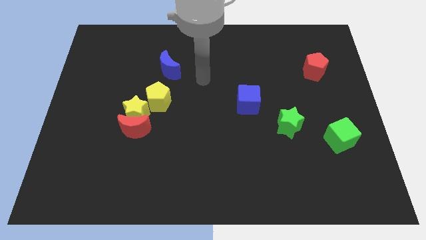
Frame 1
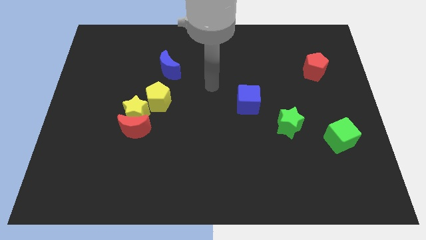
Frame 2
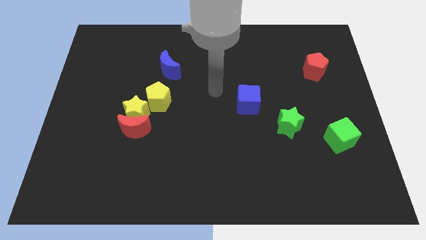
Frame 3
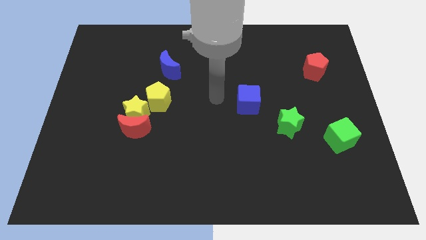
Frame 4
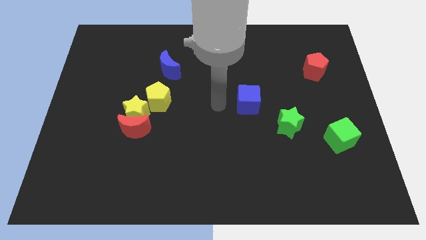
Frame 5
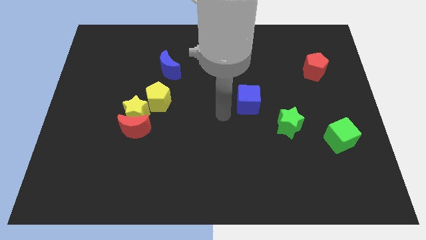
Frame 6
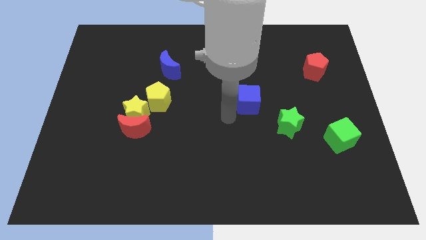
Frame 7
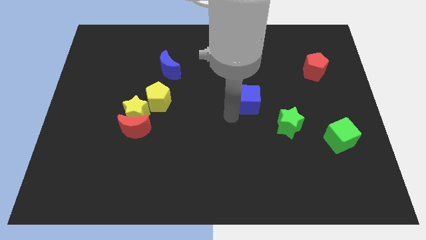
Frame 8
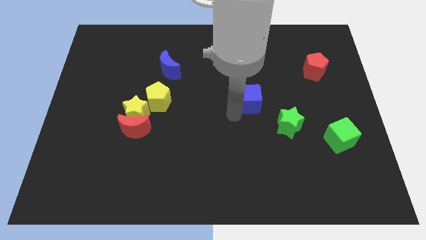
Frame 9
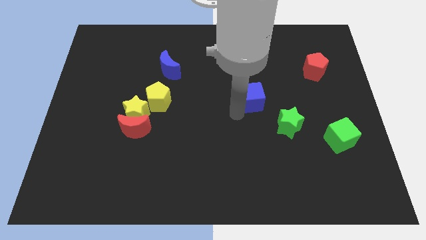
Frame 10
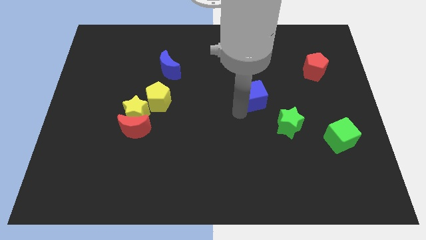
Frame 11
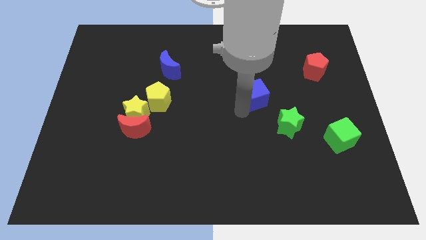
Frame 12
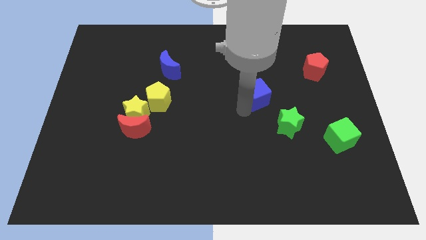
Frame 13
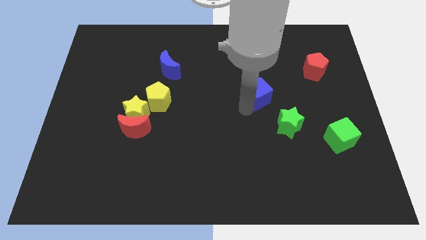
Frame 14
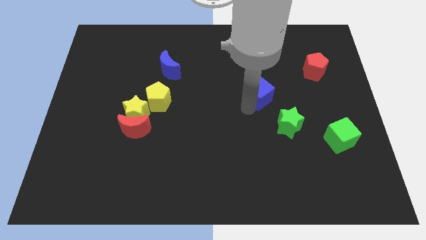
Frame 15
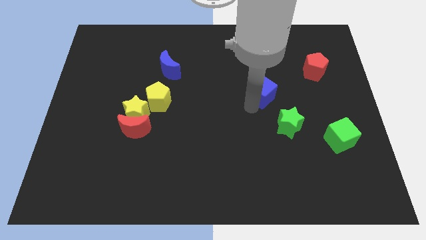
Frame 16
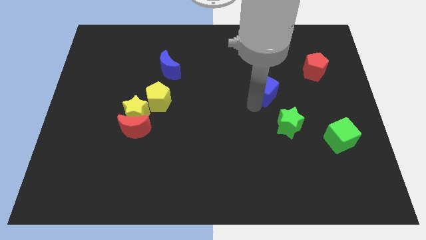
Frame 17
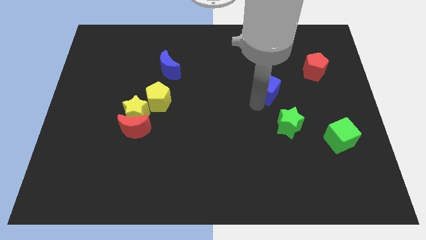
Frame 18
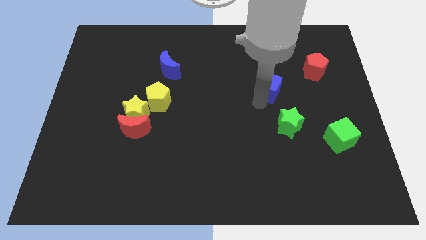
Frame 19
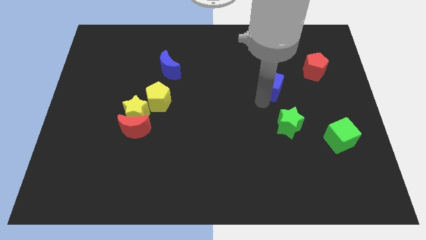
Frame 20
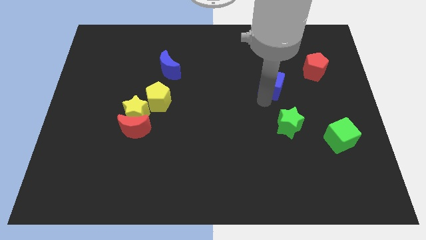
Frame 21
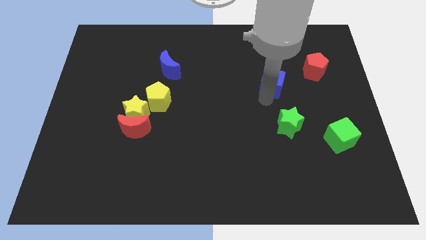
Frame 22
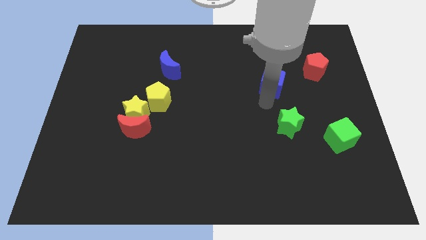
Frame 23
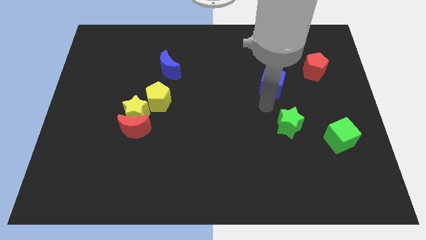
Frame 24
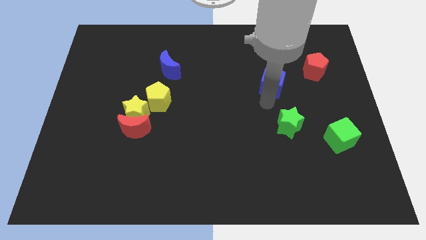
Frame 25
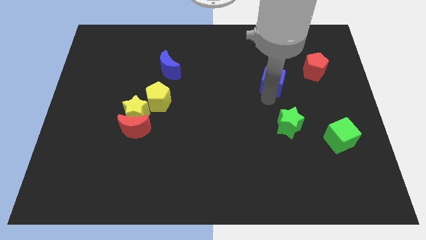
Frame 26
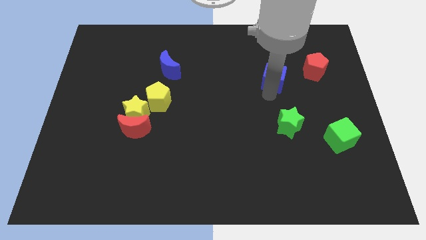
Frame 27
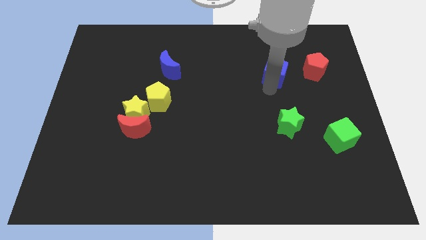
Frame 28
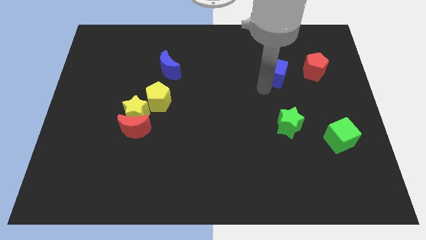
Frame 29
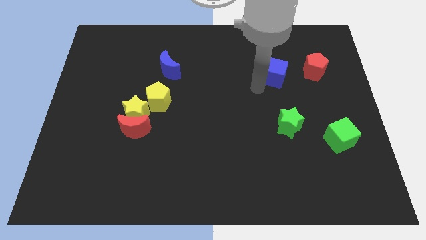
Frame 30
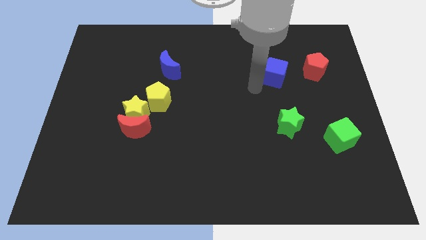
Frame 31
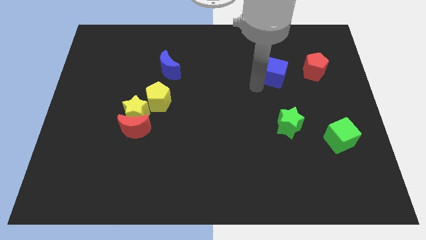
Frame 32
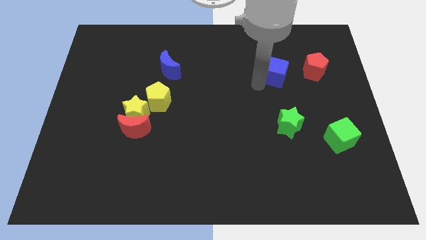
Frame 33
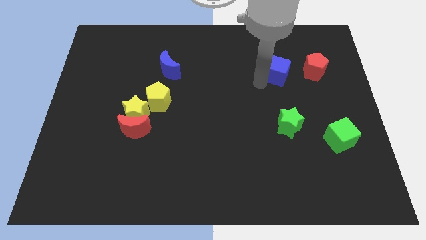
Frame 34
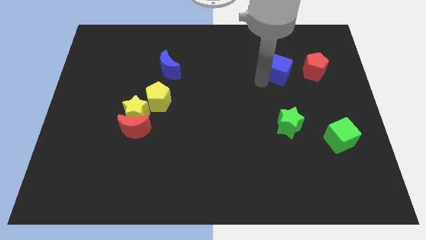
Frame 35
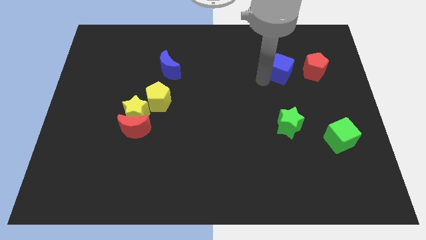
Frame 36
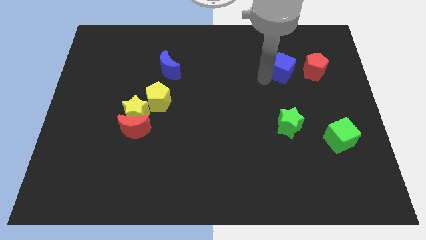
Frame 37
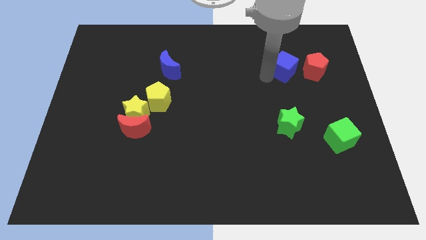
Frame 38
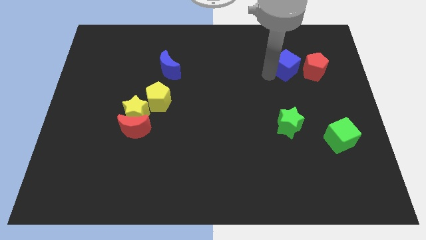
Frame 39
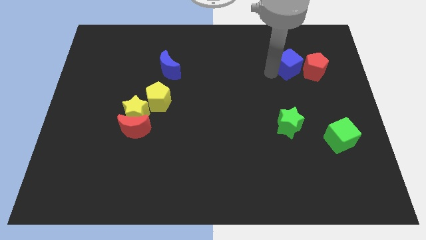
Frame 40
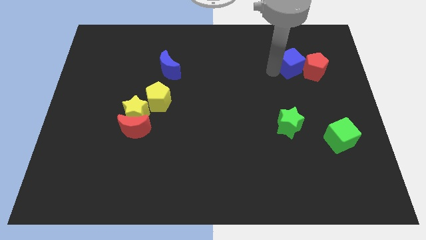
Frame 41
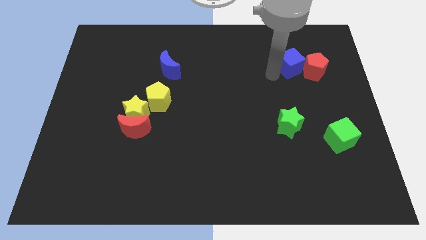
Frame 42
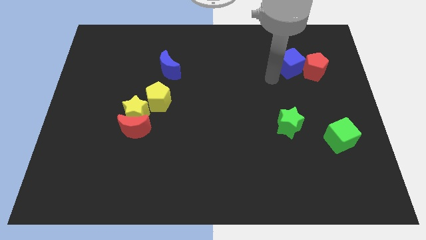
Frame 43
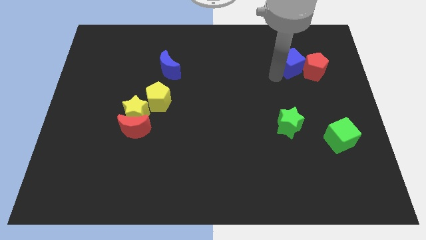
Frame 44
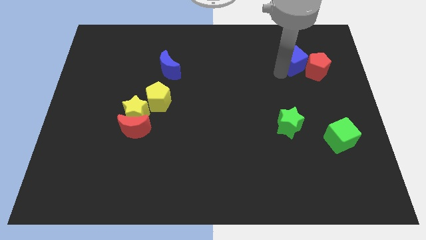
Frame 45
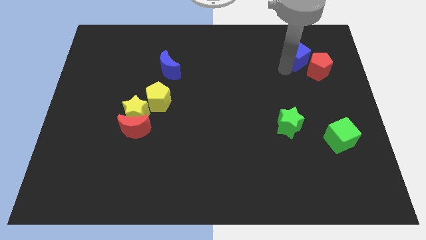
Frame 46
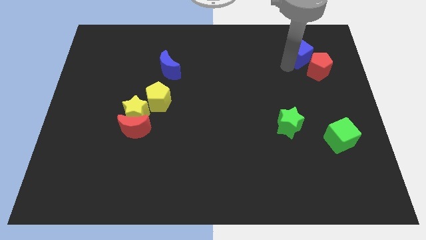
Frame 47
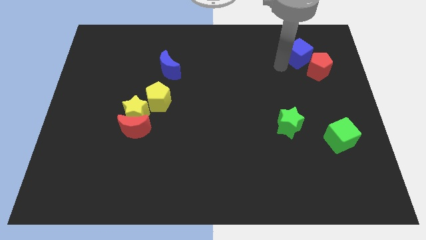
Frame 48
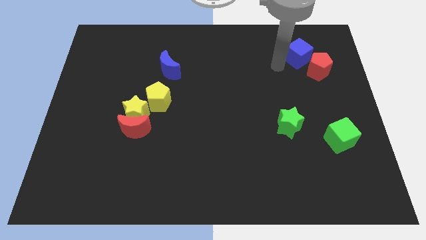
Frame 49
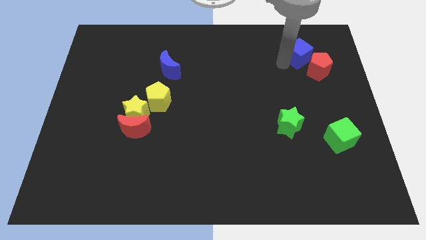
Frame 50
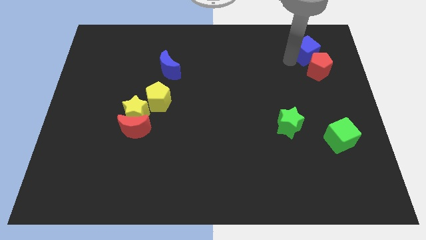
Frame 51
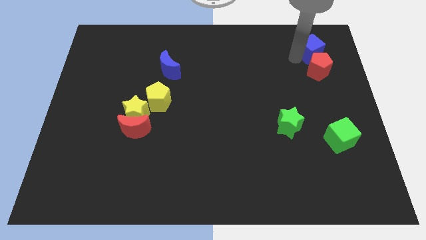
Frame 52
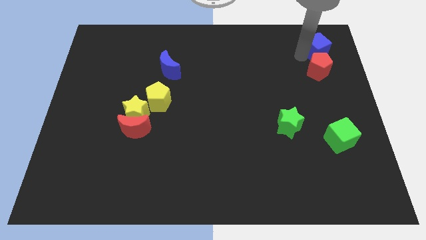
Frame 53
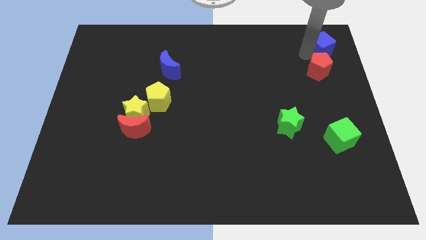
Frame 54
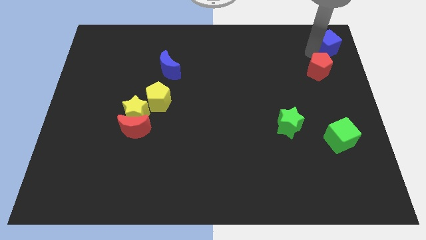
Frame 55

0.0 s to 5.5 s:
put the blue cube to the upper right corner
